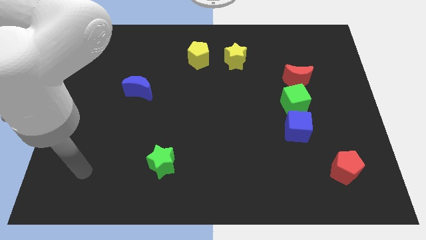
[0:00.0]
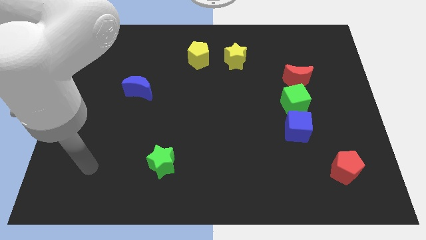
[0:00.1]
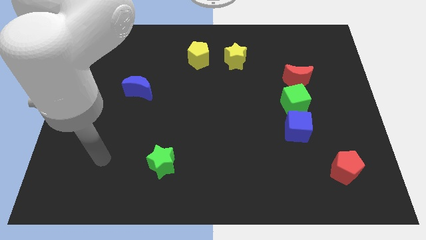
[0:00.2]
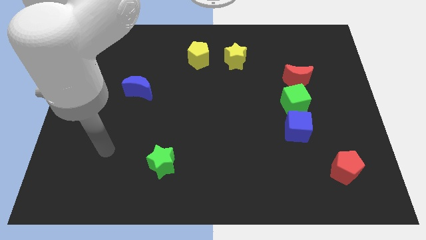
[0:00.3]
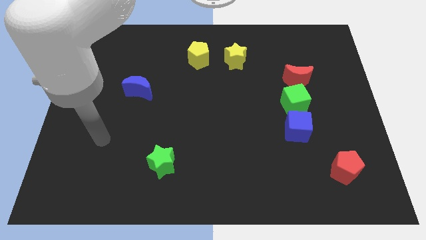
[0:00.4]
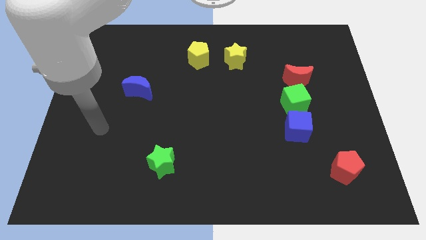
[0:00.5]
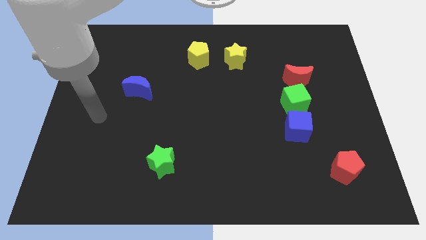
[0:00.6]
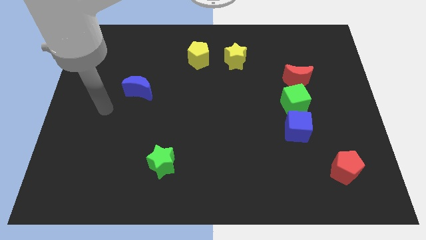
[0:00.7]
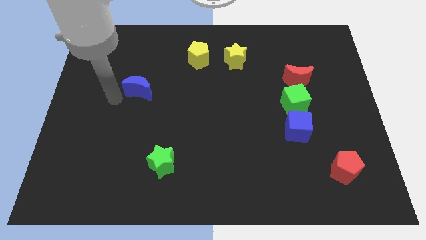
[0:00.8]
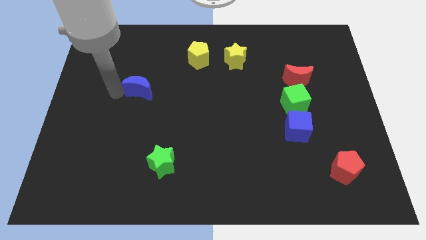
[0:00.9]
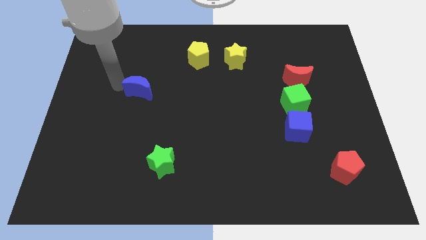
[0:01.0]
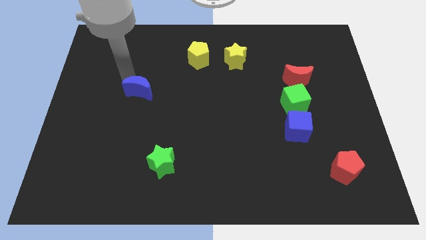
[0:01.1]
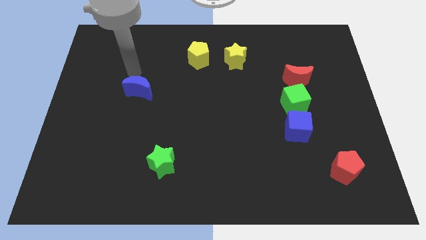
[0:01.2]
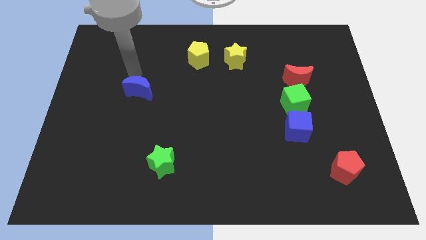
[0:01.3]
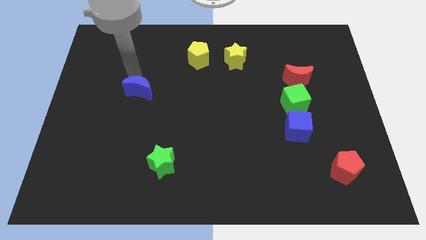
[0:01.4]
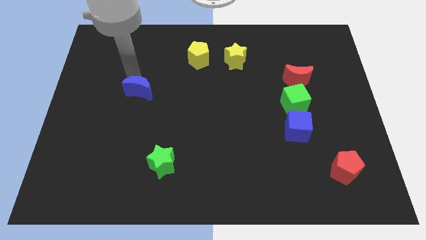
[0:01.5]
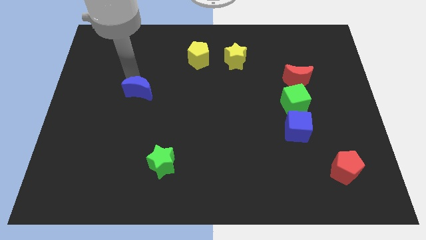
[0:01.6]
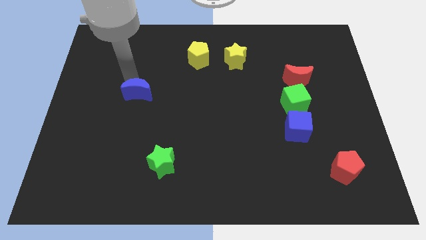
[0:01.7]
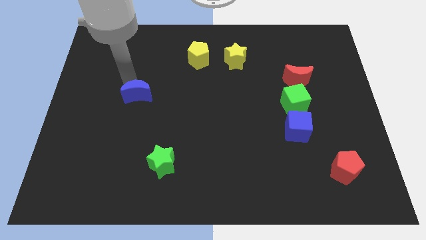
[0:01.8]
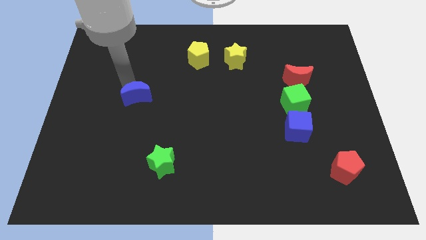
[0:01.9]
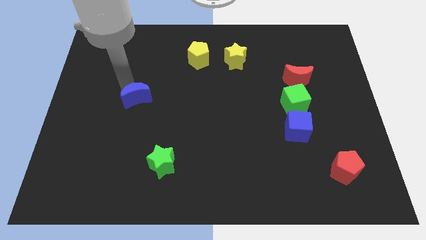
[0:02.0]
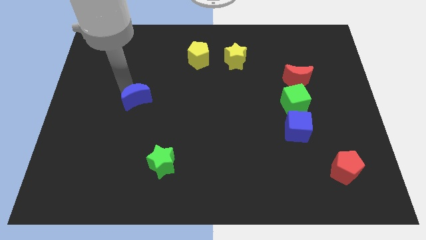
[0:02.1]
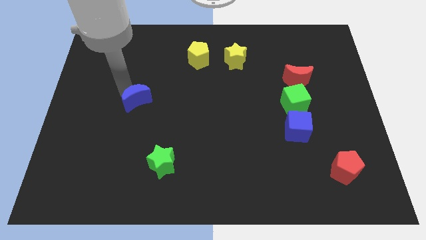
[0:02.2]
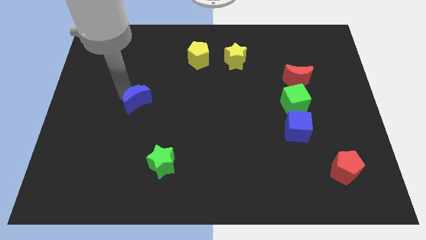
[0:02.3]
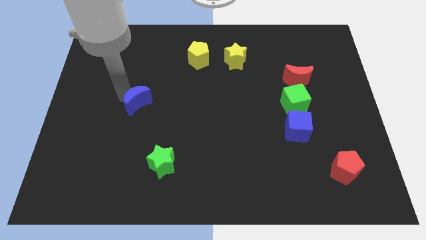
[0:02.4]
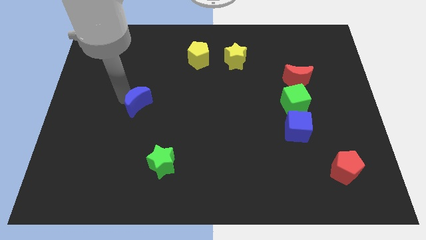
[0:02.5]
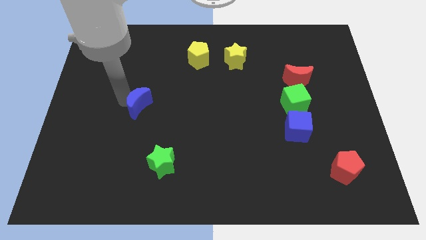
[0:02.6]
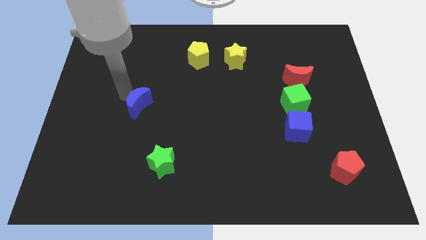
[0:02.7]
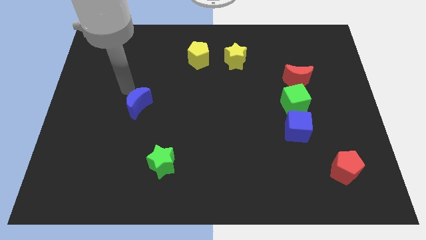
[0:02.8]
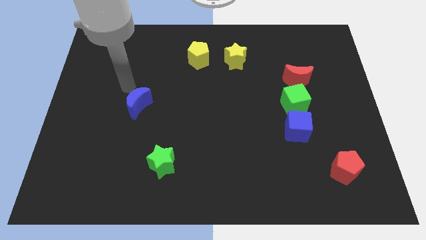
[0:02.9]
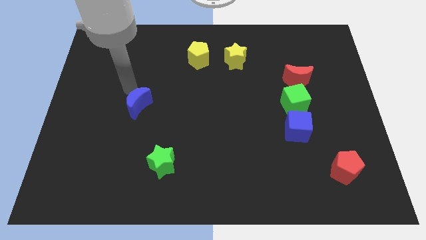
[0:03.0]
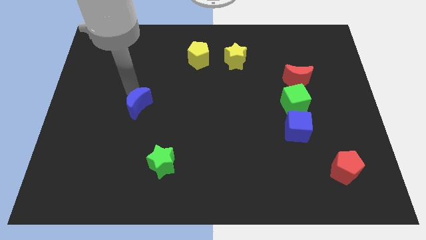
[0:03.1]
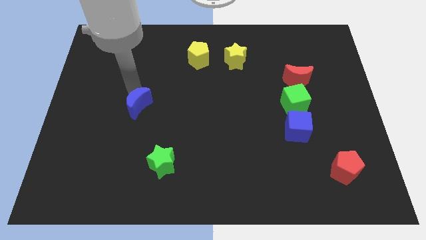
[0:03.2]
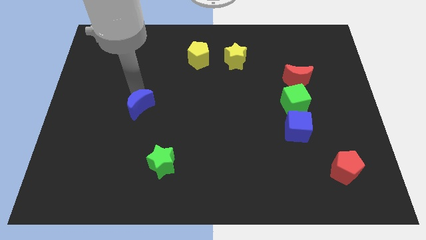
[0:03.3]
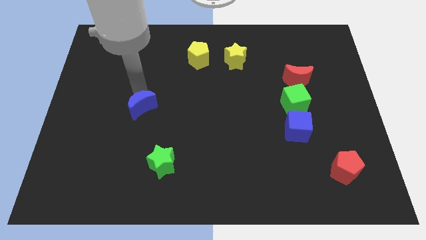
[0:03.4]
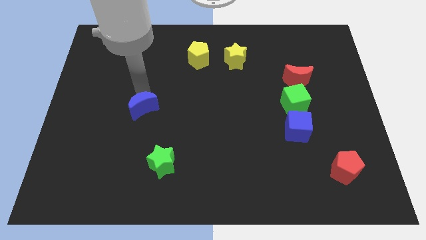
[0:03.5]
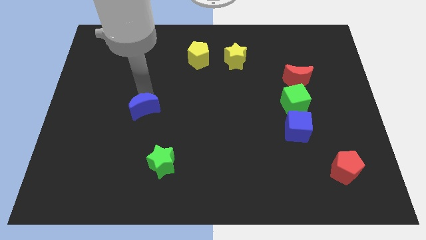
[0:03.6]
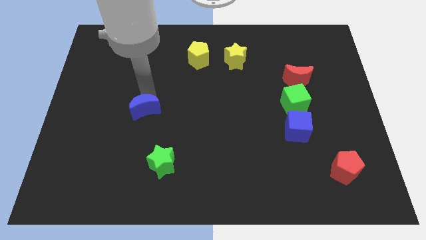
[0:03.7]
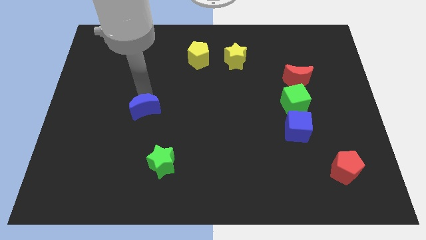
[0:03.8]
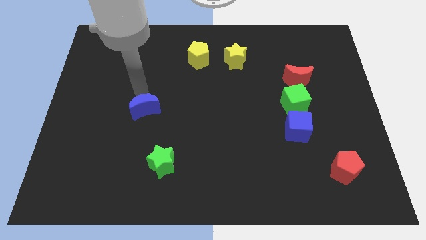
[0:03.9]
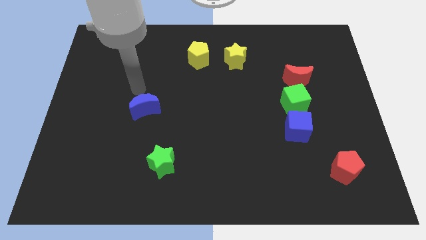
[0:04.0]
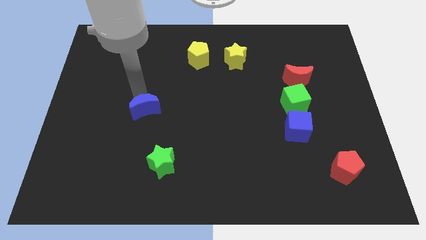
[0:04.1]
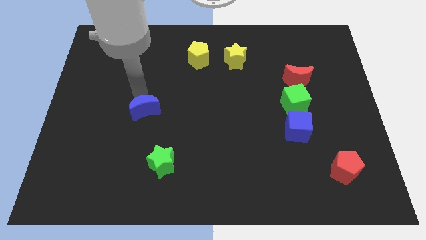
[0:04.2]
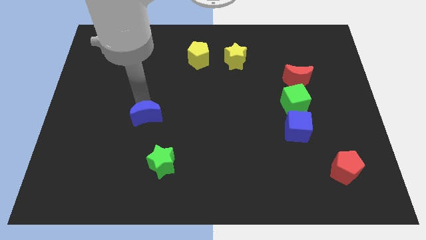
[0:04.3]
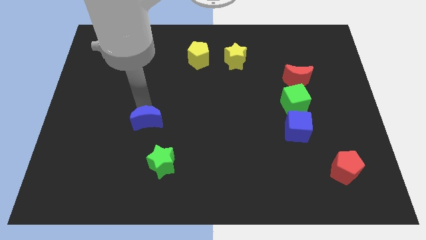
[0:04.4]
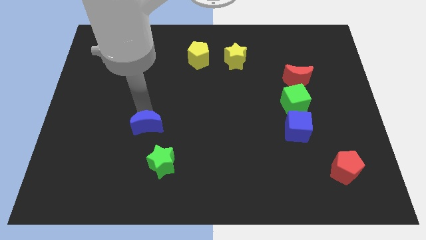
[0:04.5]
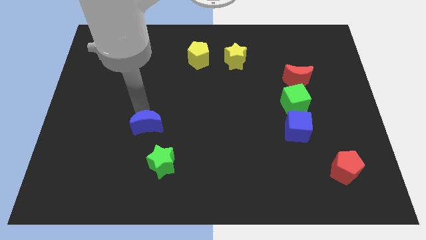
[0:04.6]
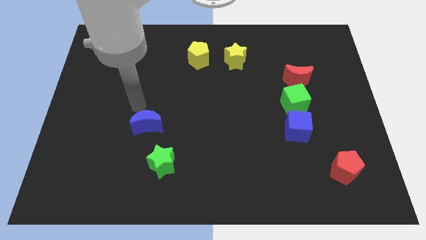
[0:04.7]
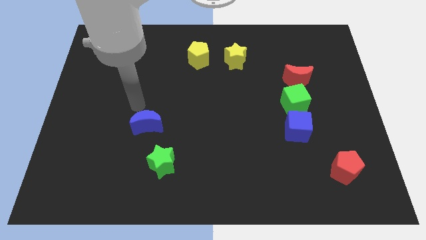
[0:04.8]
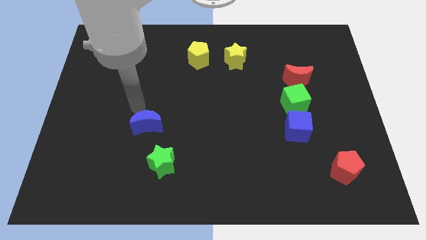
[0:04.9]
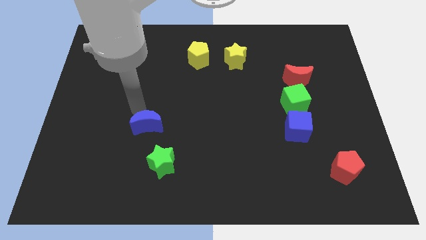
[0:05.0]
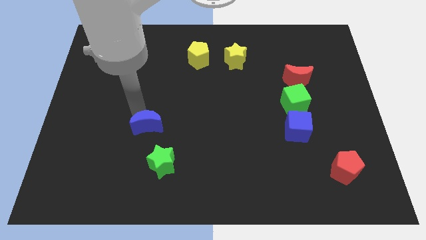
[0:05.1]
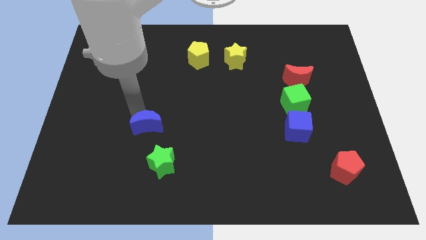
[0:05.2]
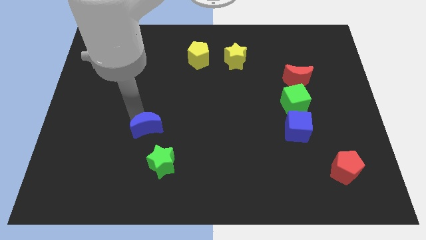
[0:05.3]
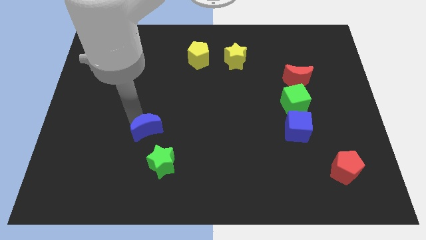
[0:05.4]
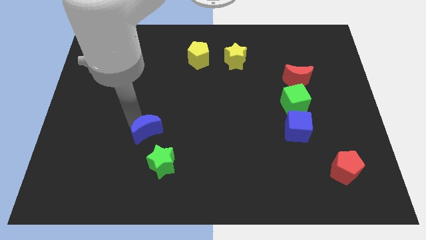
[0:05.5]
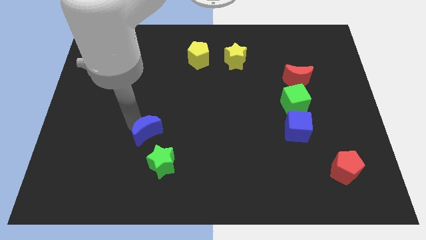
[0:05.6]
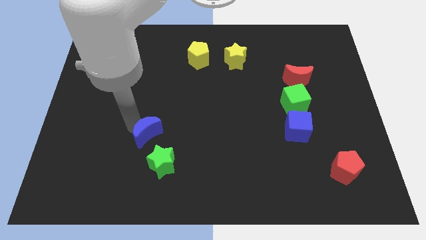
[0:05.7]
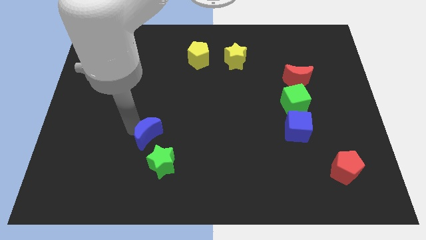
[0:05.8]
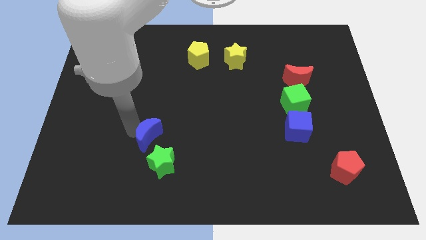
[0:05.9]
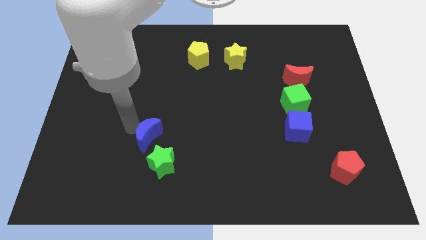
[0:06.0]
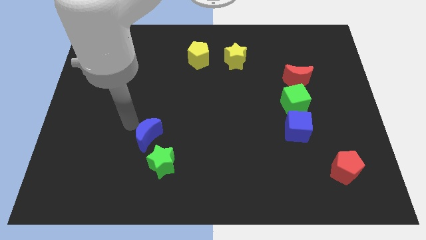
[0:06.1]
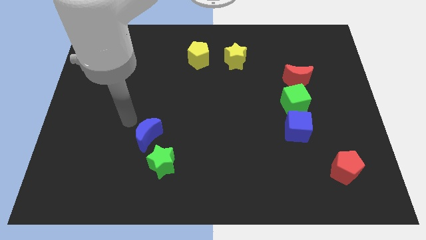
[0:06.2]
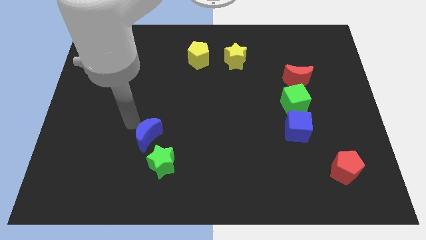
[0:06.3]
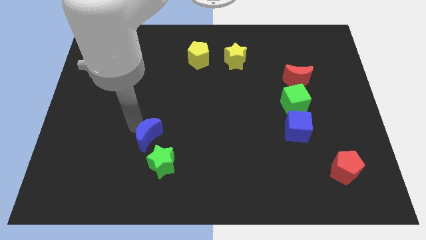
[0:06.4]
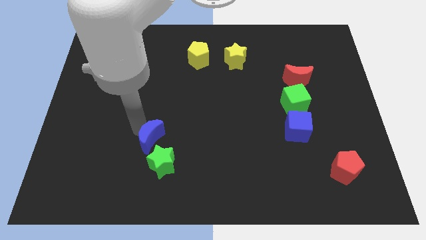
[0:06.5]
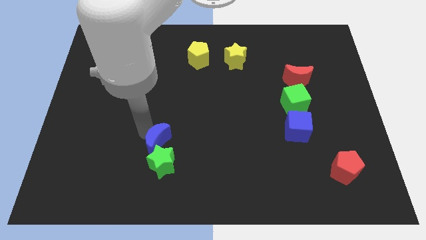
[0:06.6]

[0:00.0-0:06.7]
put the blue moon to the green star
